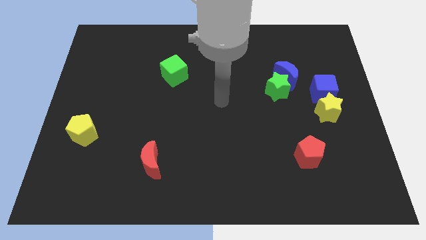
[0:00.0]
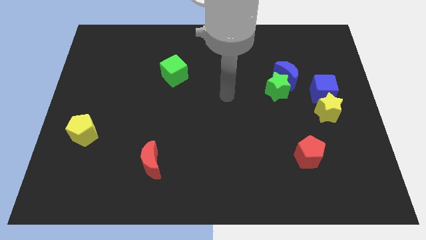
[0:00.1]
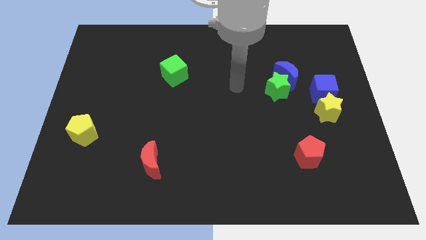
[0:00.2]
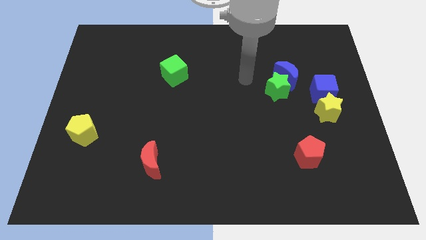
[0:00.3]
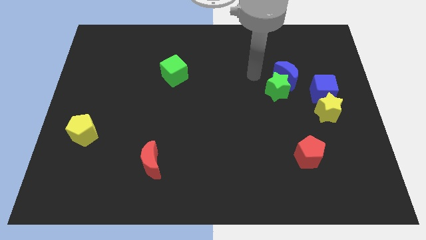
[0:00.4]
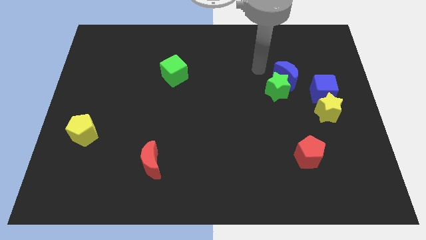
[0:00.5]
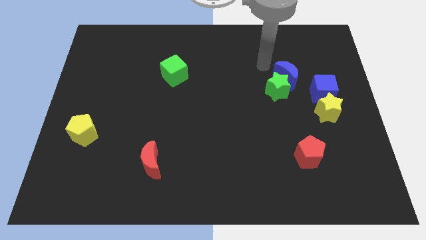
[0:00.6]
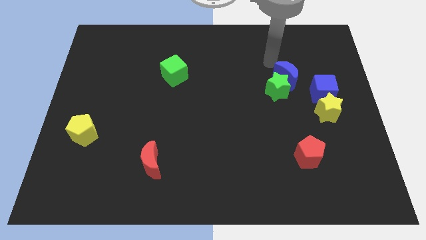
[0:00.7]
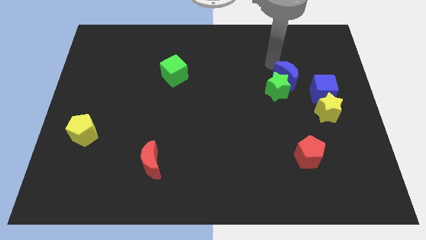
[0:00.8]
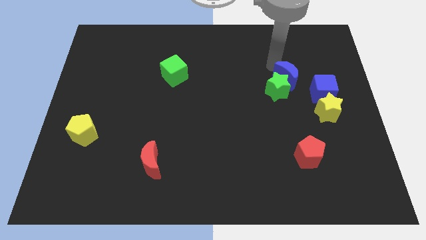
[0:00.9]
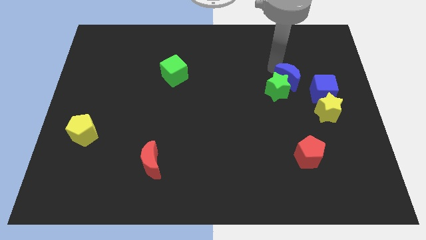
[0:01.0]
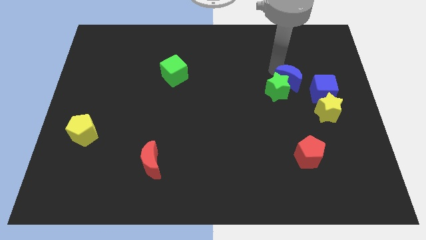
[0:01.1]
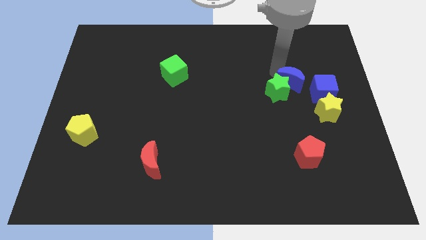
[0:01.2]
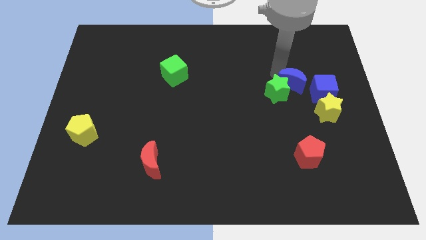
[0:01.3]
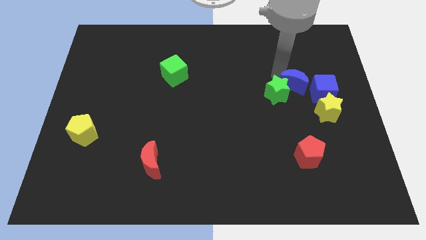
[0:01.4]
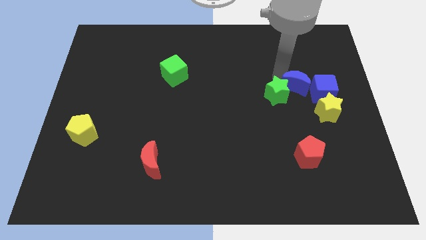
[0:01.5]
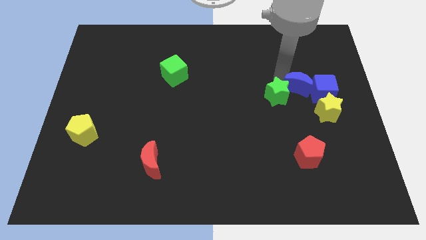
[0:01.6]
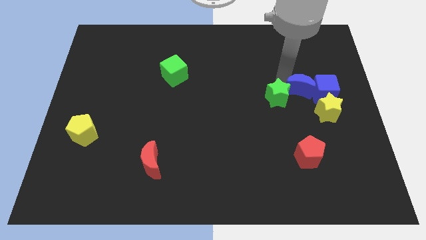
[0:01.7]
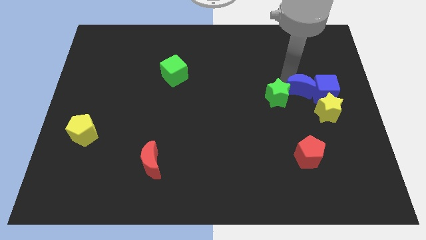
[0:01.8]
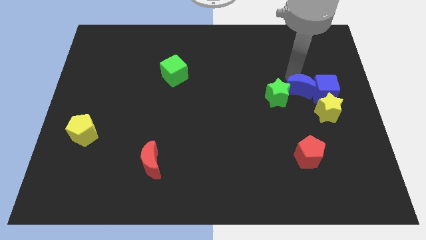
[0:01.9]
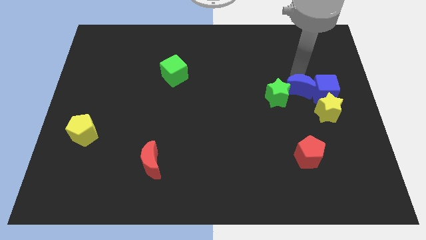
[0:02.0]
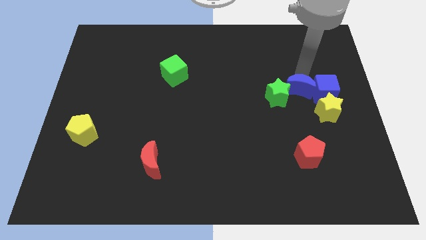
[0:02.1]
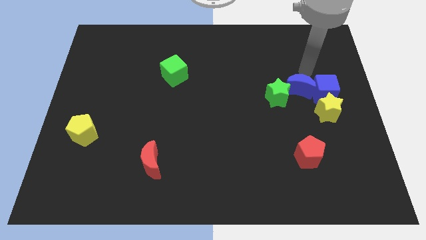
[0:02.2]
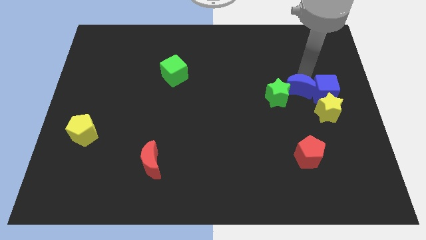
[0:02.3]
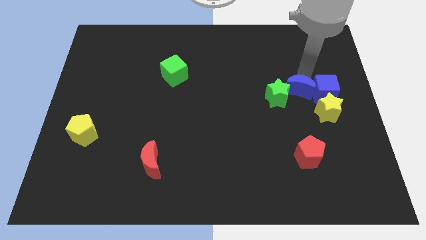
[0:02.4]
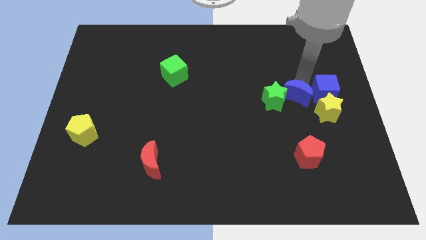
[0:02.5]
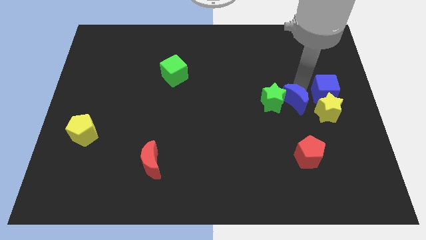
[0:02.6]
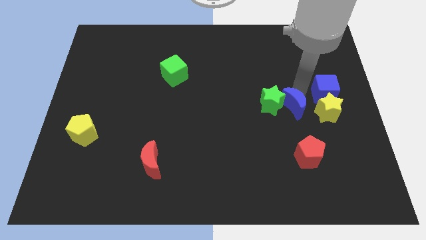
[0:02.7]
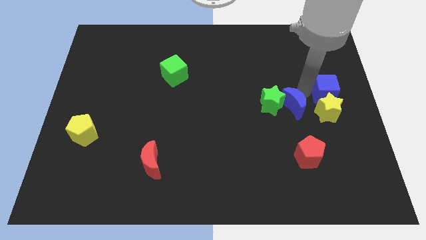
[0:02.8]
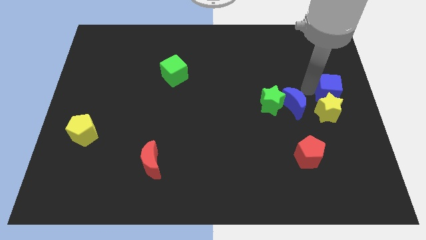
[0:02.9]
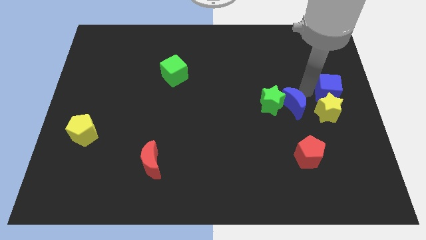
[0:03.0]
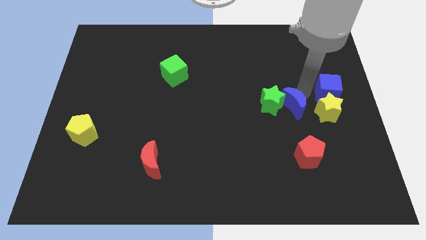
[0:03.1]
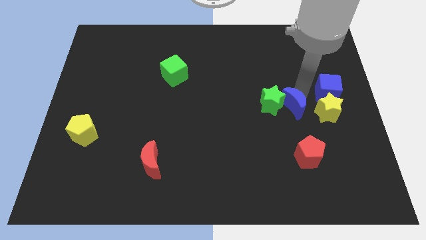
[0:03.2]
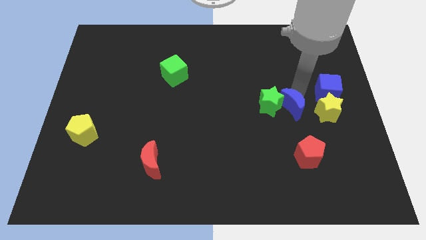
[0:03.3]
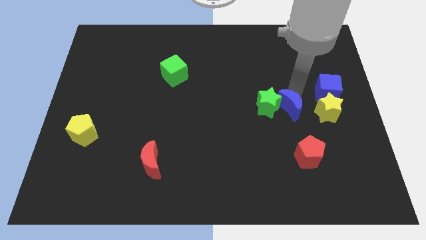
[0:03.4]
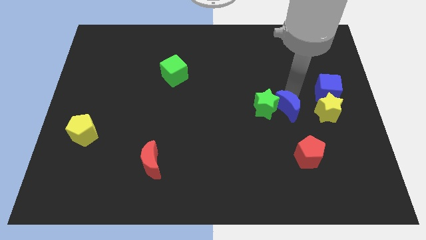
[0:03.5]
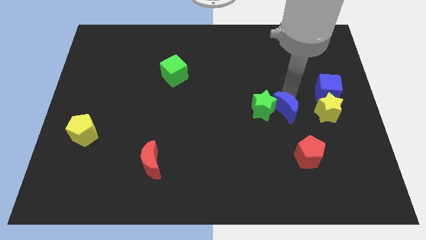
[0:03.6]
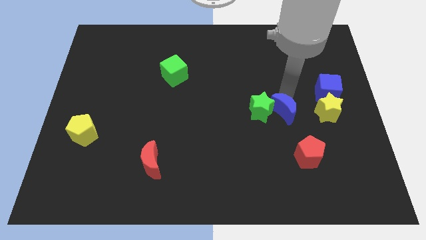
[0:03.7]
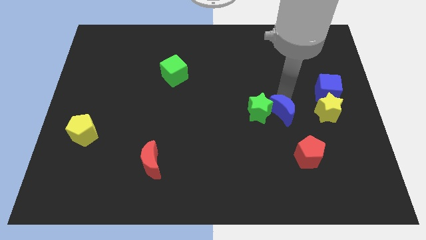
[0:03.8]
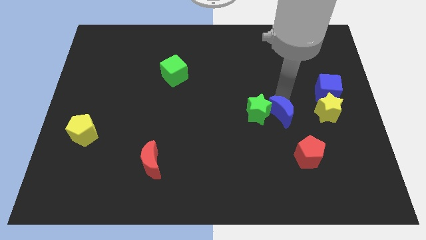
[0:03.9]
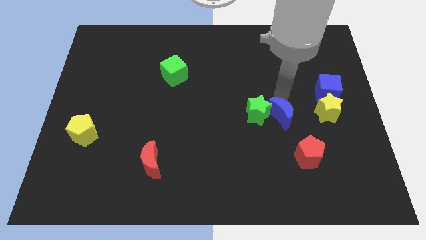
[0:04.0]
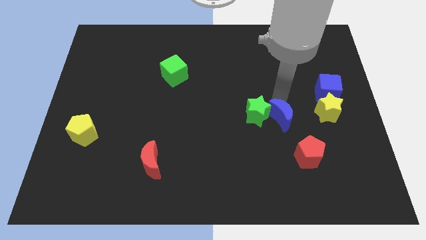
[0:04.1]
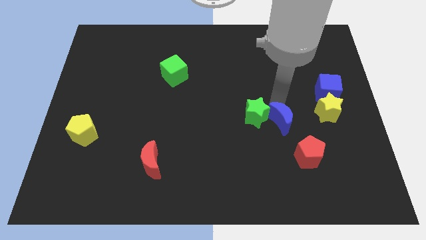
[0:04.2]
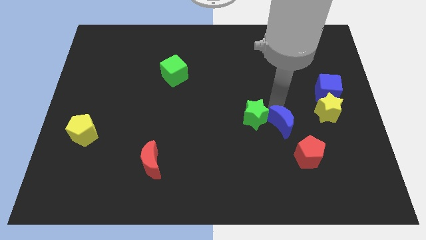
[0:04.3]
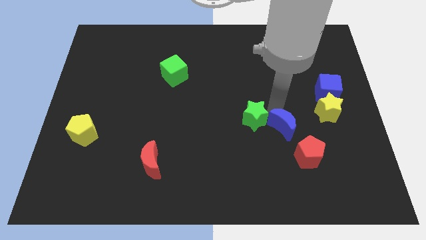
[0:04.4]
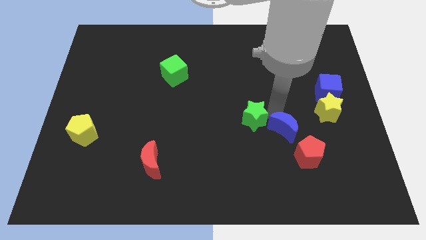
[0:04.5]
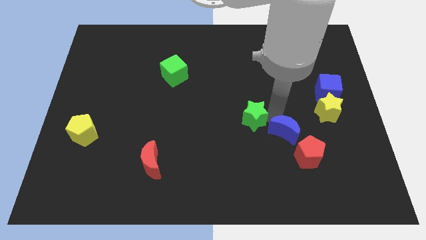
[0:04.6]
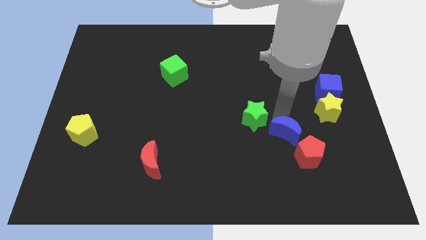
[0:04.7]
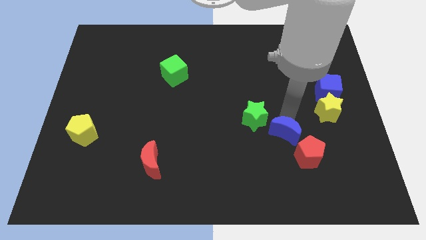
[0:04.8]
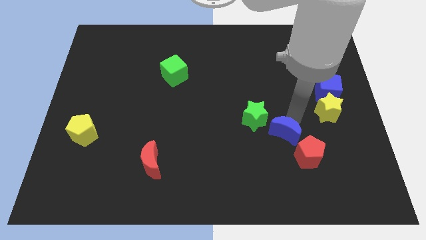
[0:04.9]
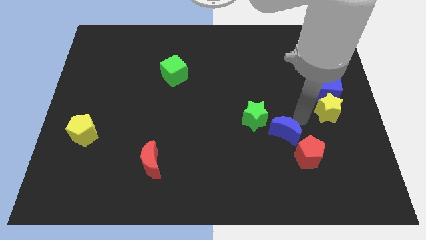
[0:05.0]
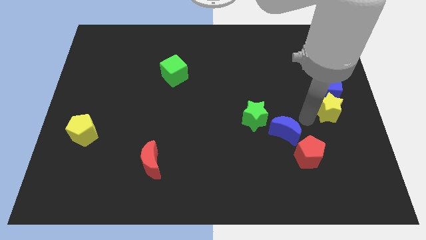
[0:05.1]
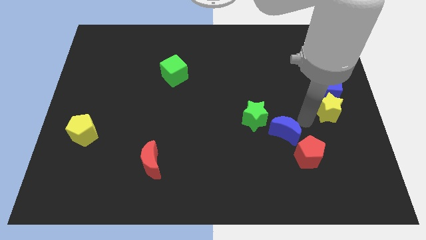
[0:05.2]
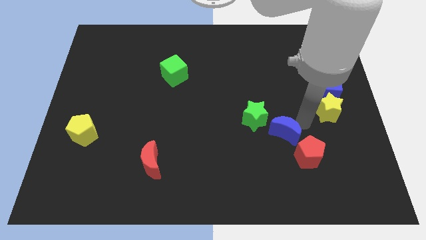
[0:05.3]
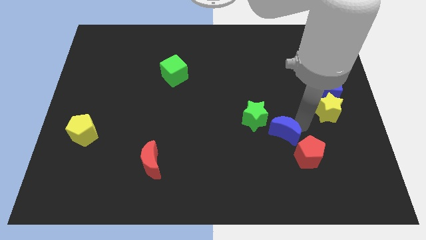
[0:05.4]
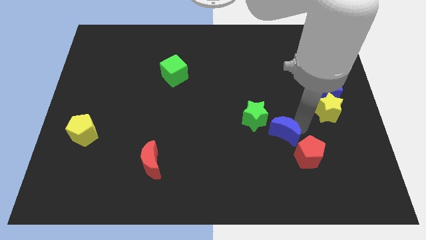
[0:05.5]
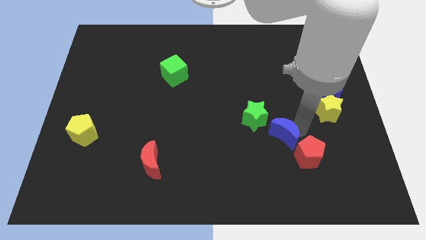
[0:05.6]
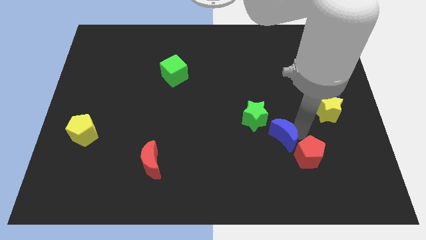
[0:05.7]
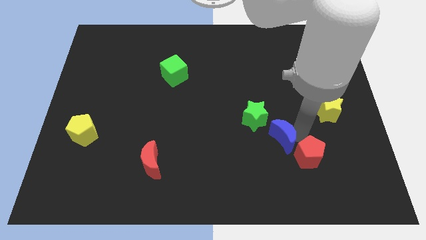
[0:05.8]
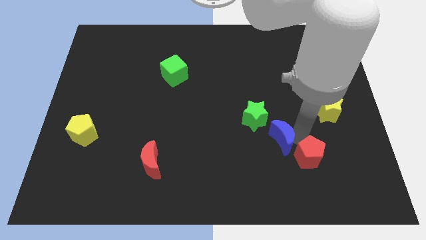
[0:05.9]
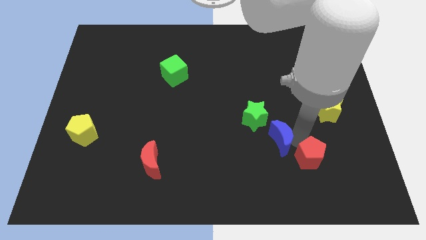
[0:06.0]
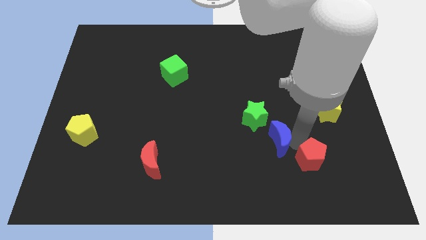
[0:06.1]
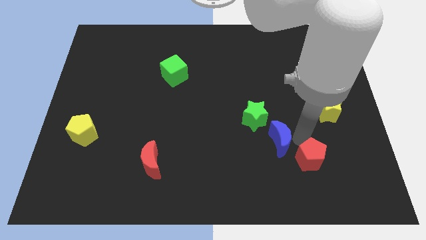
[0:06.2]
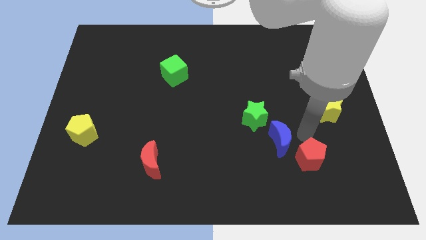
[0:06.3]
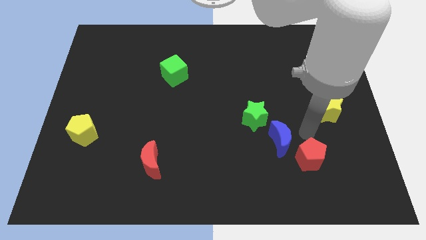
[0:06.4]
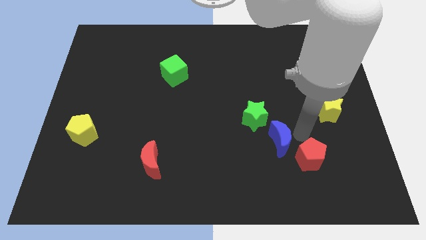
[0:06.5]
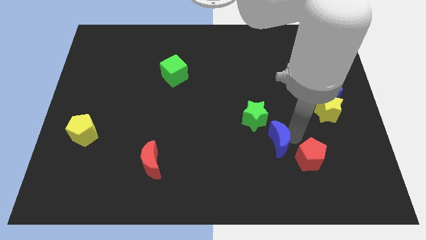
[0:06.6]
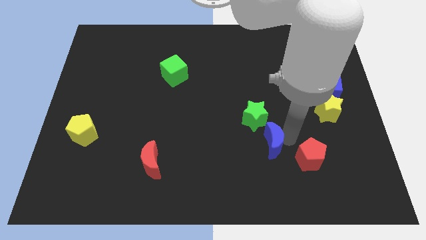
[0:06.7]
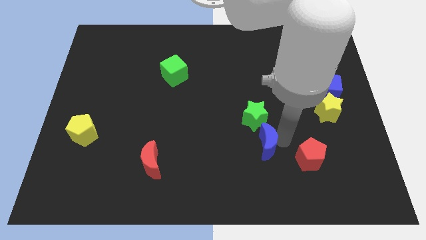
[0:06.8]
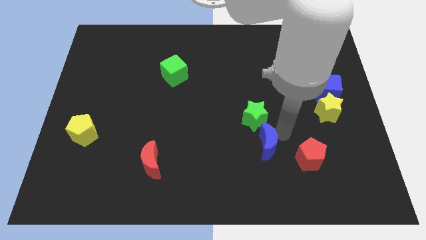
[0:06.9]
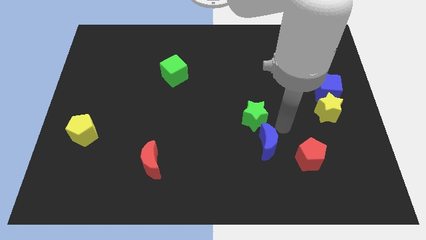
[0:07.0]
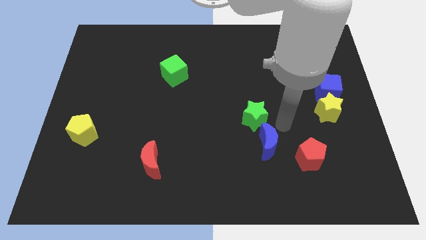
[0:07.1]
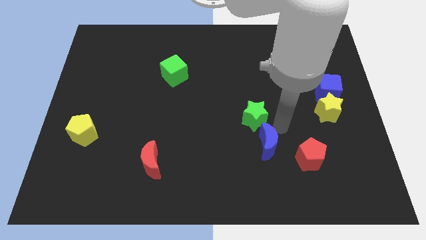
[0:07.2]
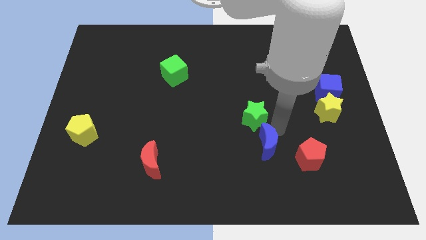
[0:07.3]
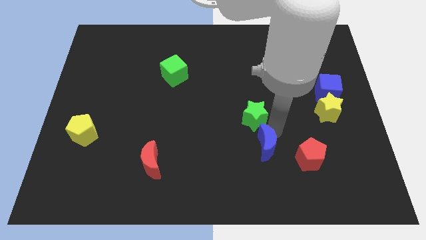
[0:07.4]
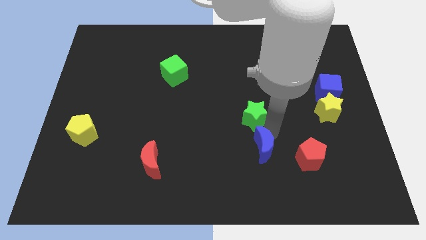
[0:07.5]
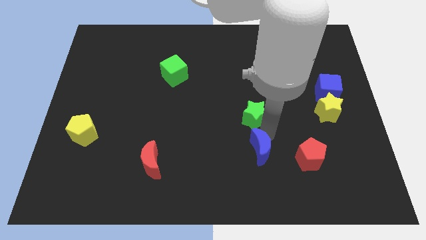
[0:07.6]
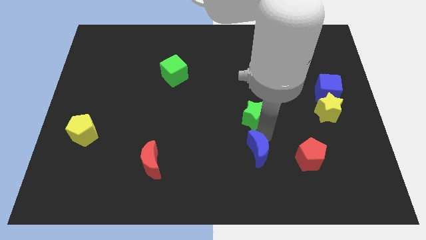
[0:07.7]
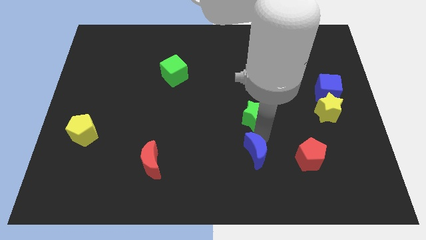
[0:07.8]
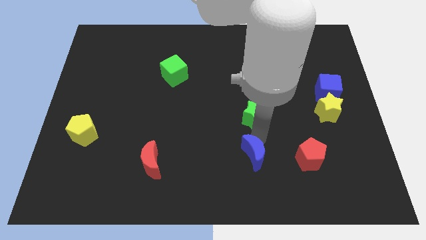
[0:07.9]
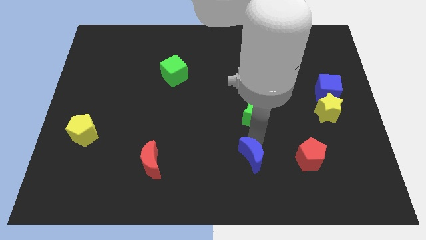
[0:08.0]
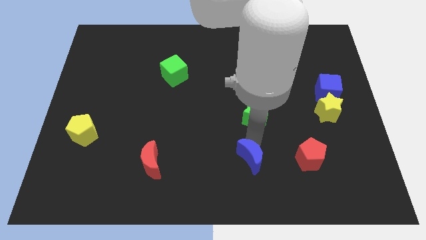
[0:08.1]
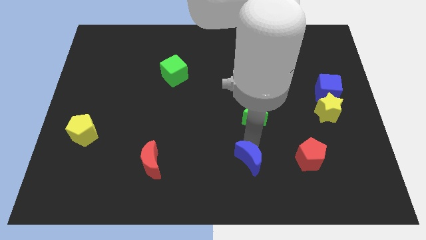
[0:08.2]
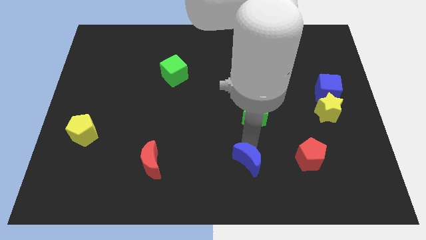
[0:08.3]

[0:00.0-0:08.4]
move the blue moon to the bottom side
